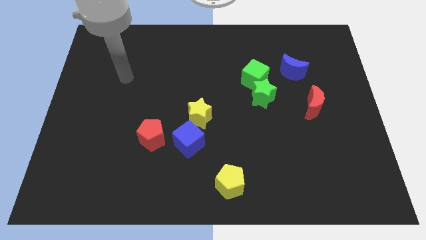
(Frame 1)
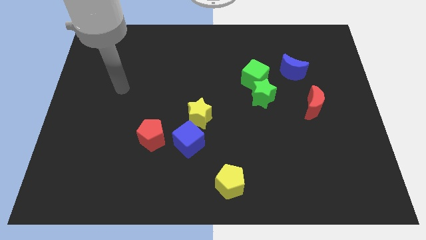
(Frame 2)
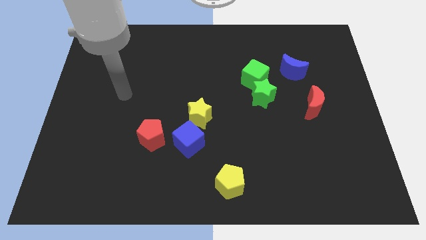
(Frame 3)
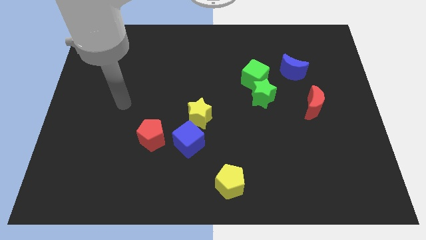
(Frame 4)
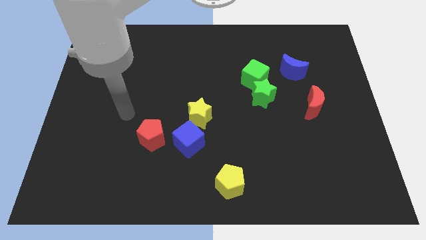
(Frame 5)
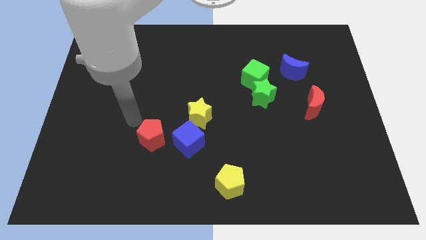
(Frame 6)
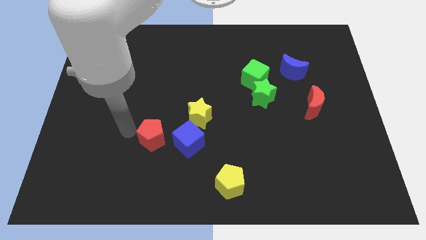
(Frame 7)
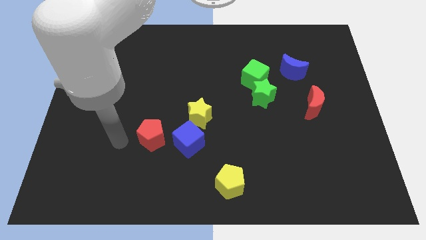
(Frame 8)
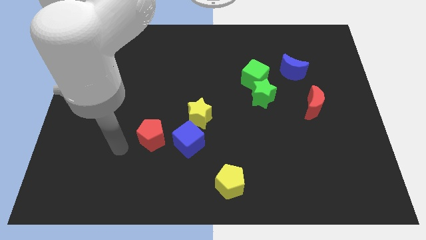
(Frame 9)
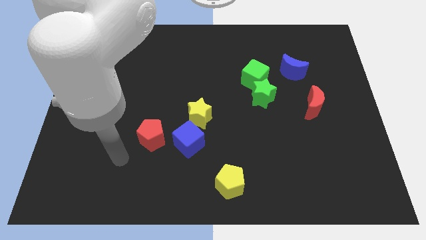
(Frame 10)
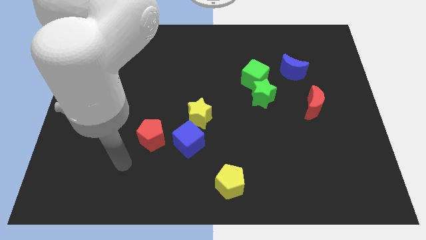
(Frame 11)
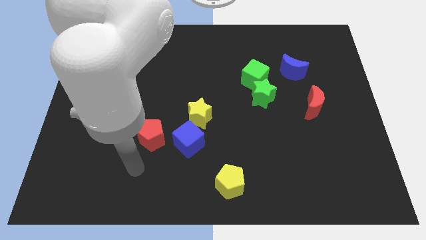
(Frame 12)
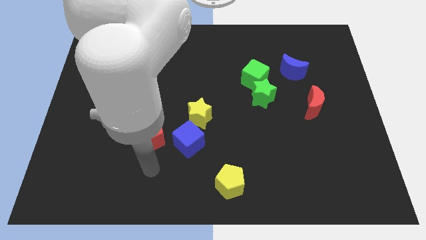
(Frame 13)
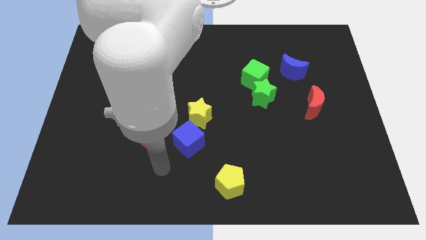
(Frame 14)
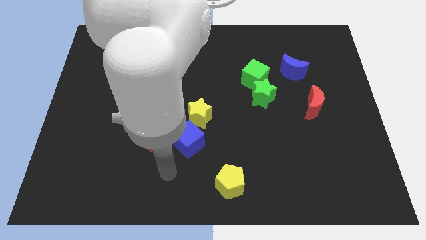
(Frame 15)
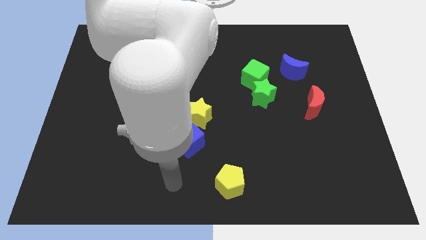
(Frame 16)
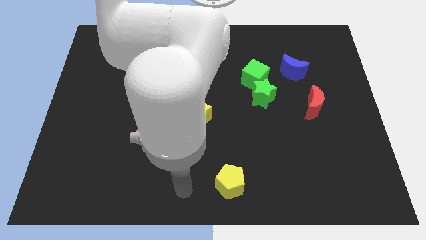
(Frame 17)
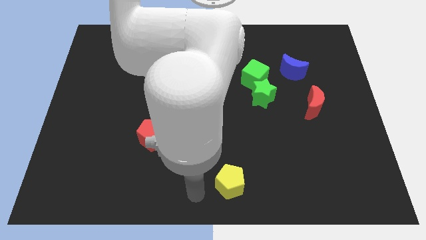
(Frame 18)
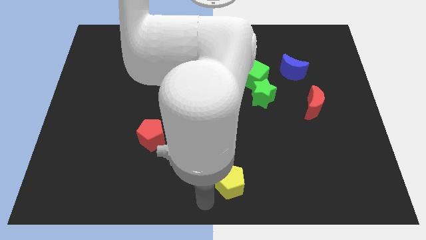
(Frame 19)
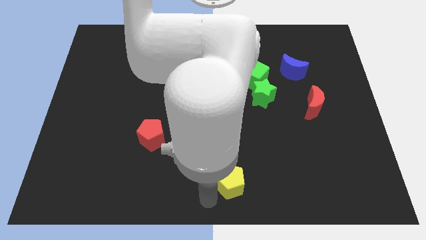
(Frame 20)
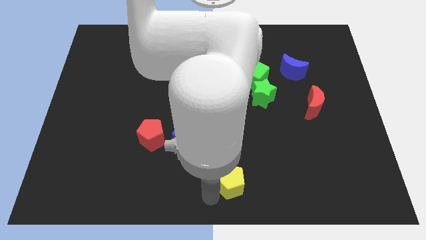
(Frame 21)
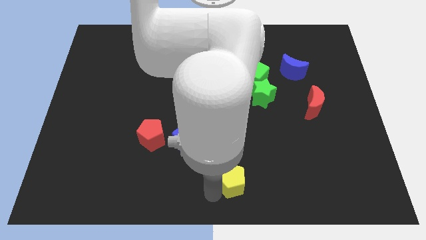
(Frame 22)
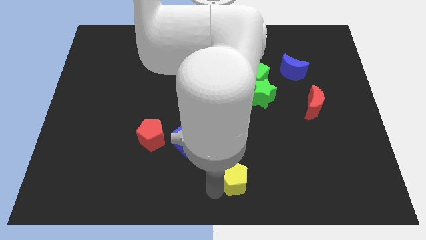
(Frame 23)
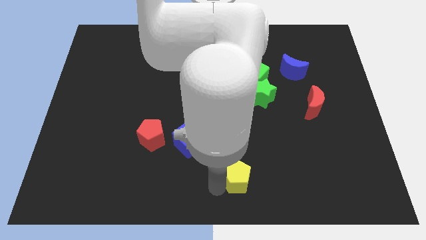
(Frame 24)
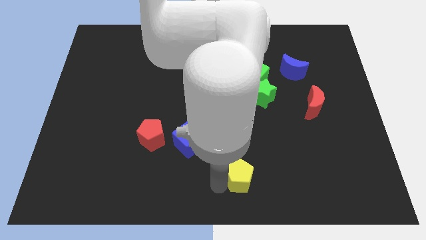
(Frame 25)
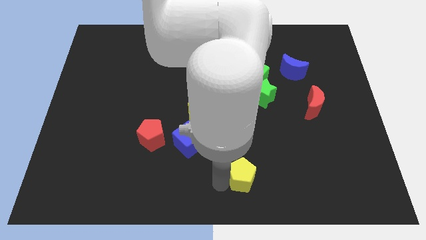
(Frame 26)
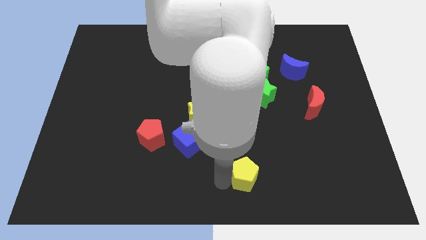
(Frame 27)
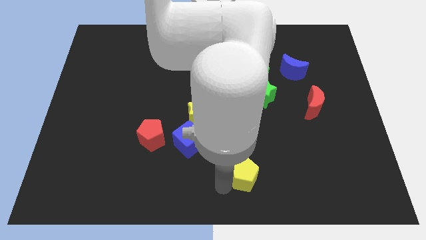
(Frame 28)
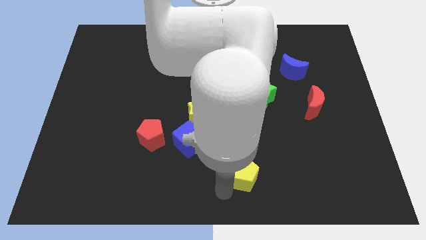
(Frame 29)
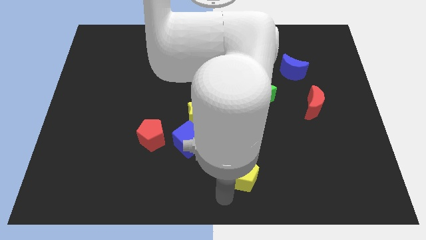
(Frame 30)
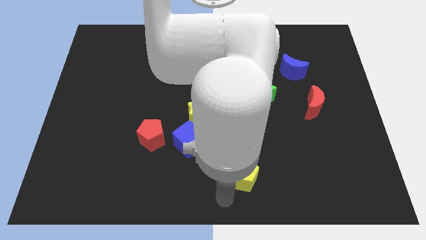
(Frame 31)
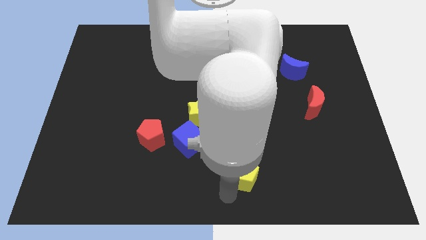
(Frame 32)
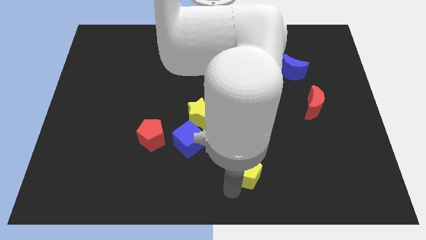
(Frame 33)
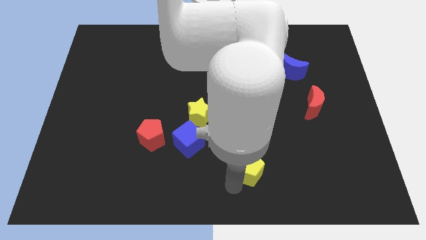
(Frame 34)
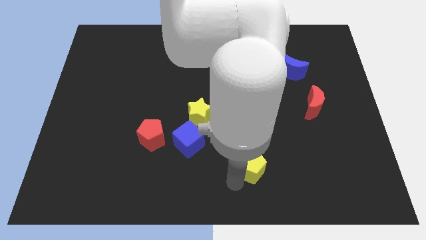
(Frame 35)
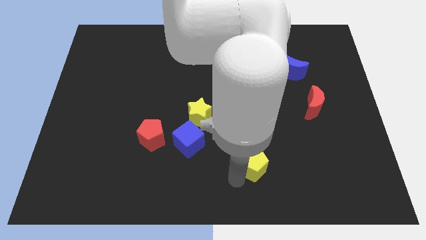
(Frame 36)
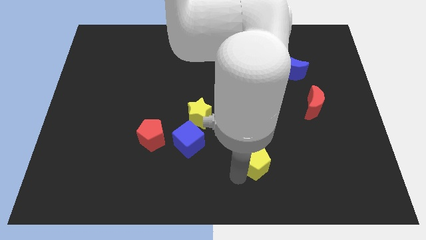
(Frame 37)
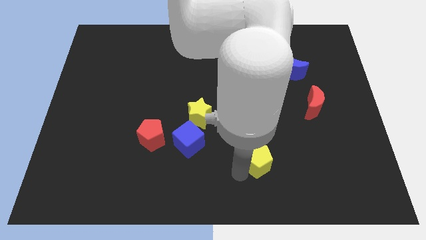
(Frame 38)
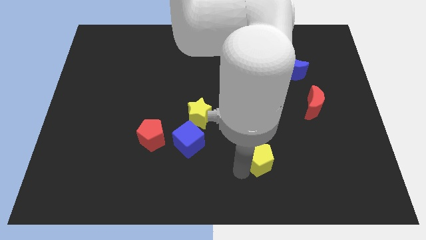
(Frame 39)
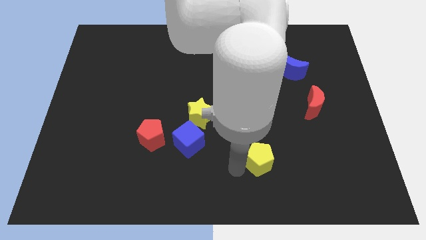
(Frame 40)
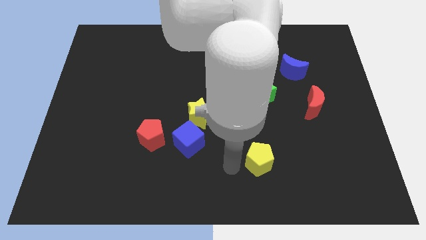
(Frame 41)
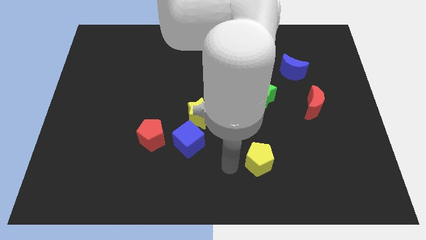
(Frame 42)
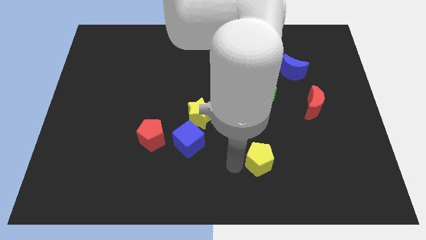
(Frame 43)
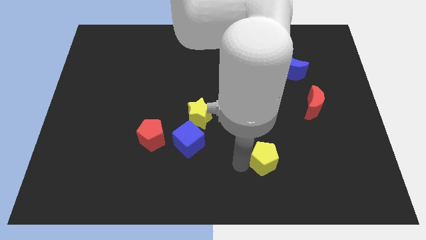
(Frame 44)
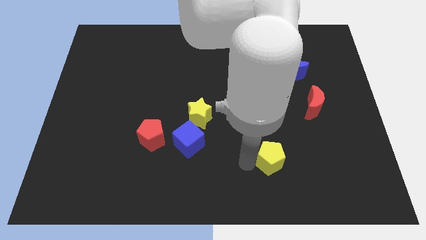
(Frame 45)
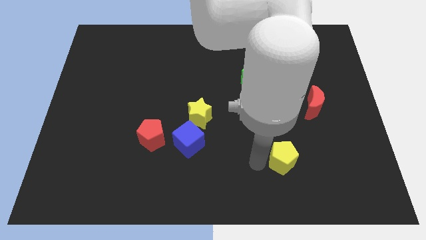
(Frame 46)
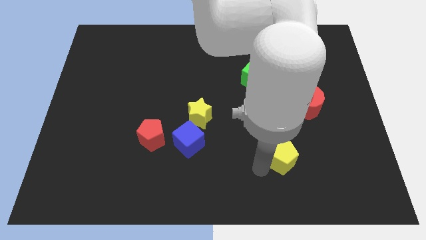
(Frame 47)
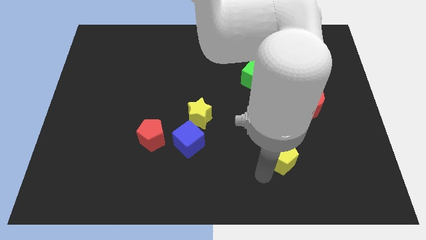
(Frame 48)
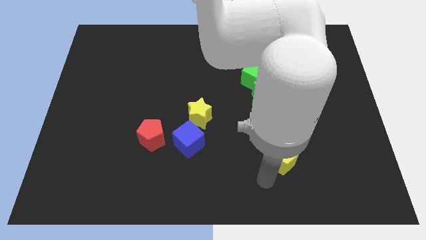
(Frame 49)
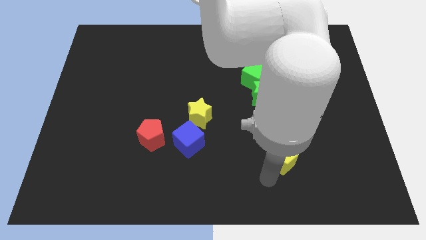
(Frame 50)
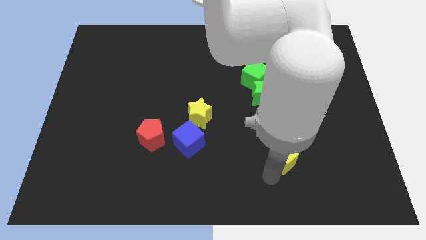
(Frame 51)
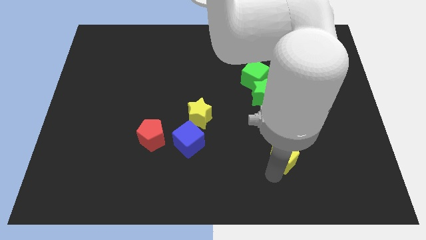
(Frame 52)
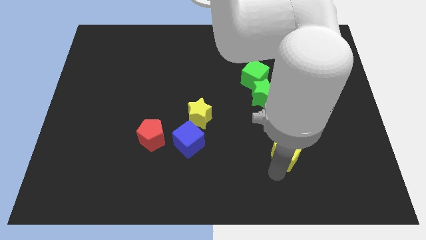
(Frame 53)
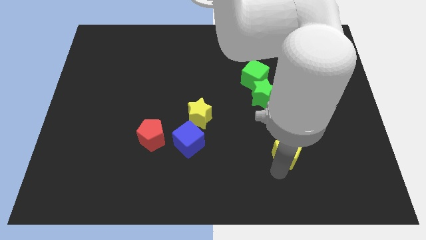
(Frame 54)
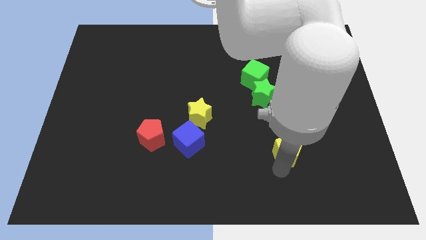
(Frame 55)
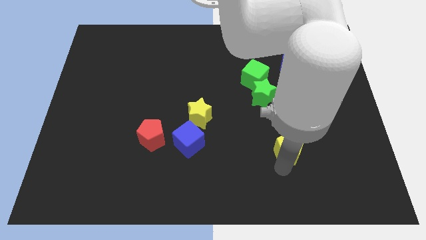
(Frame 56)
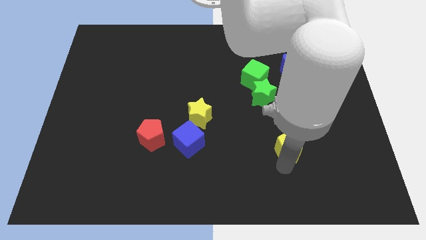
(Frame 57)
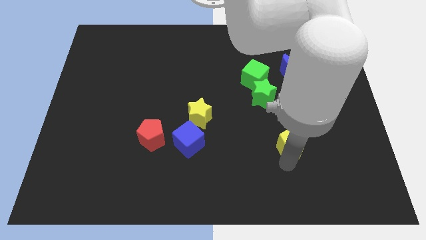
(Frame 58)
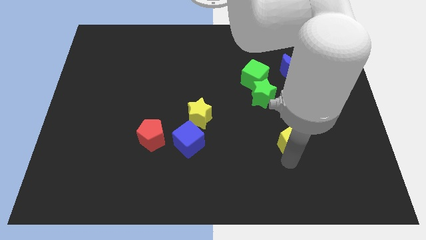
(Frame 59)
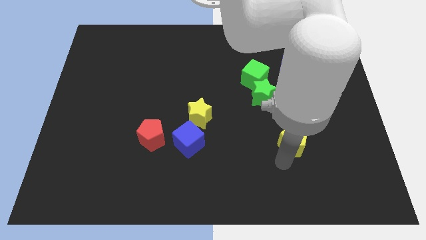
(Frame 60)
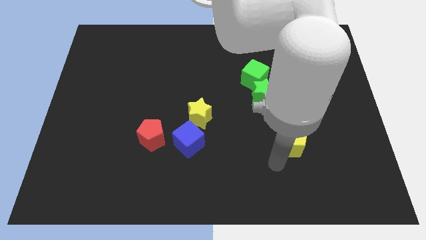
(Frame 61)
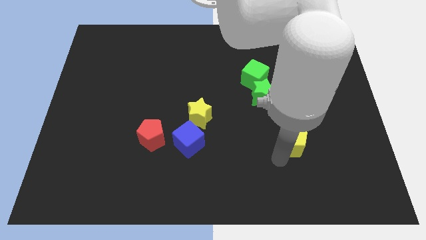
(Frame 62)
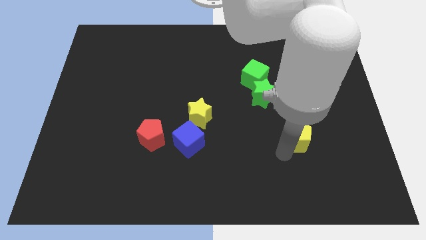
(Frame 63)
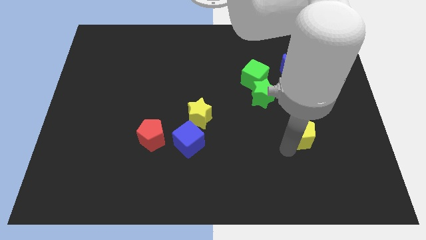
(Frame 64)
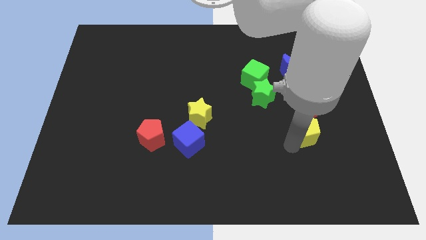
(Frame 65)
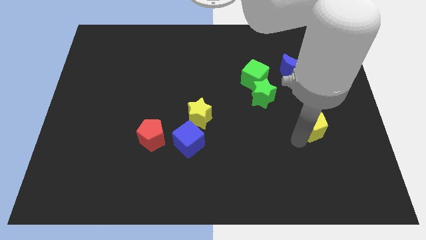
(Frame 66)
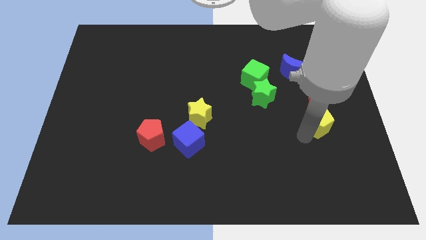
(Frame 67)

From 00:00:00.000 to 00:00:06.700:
put the yellow pentagon to the red moon

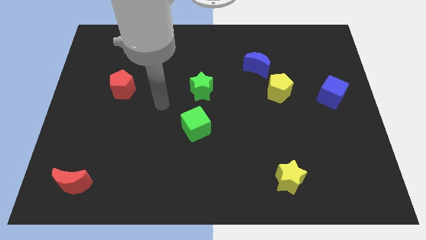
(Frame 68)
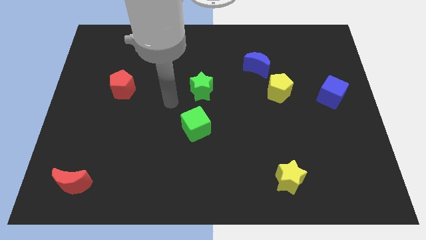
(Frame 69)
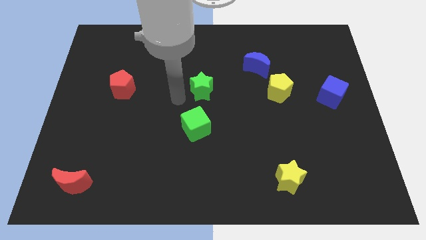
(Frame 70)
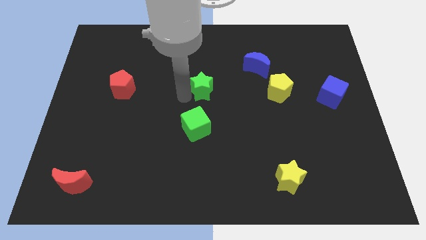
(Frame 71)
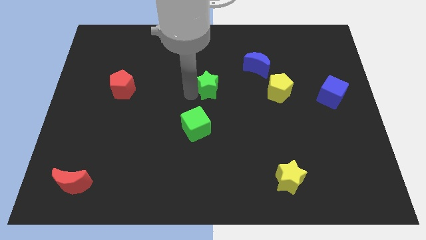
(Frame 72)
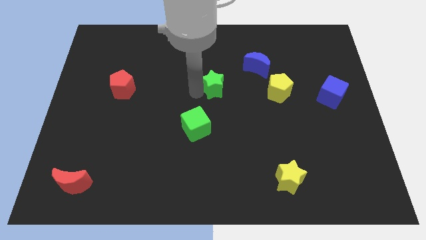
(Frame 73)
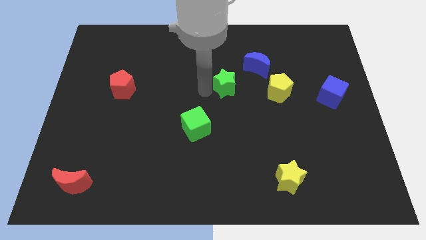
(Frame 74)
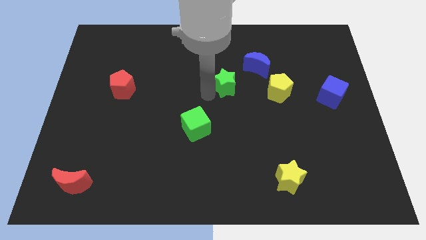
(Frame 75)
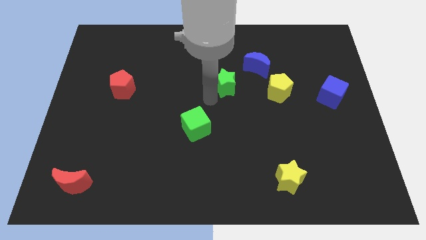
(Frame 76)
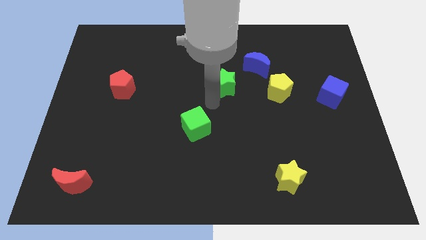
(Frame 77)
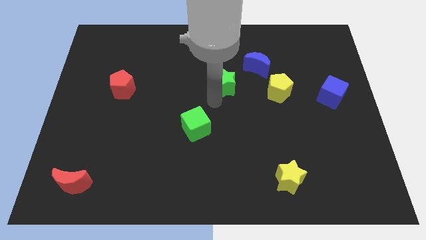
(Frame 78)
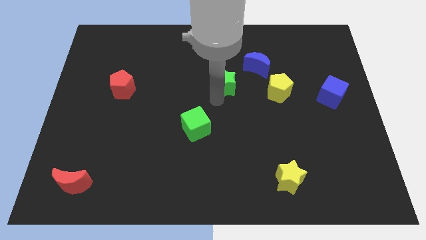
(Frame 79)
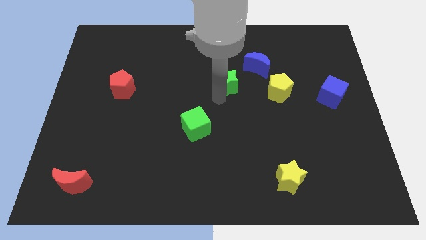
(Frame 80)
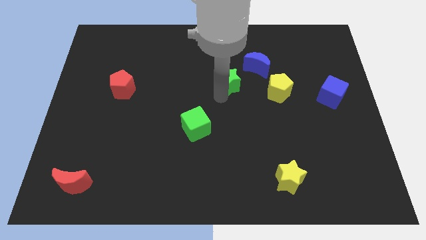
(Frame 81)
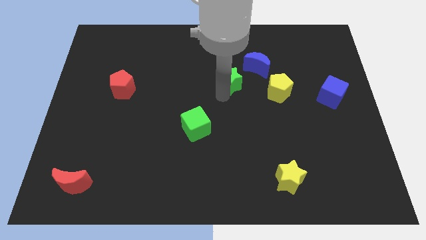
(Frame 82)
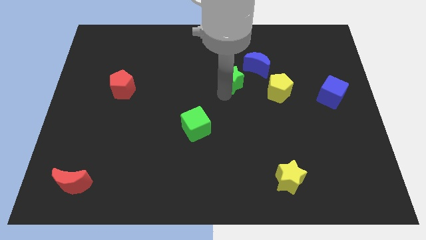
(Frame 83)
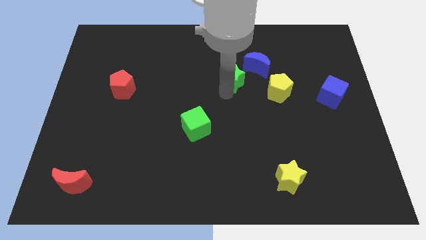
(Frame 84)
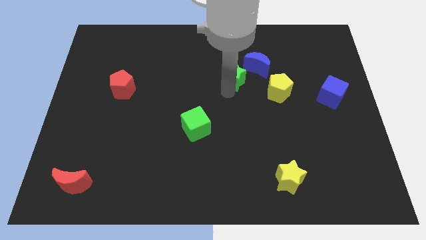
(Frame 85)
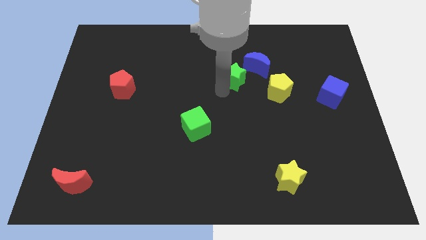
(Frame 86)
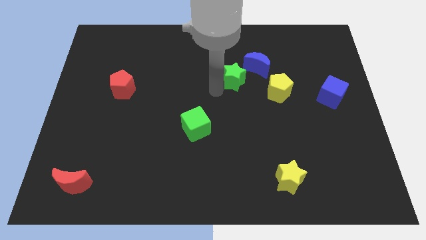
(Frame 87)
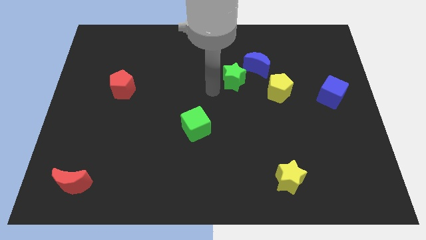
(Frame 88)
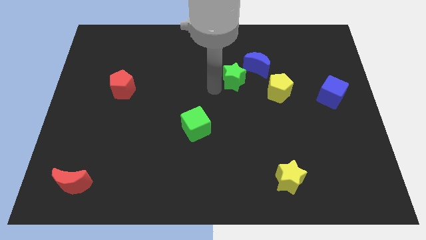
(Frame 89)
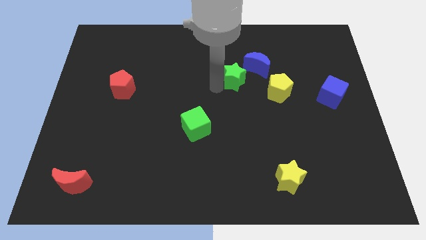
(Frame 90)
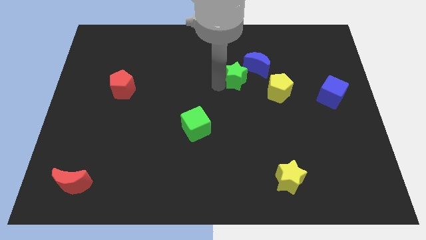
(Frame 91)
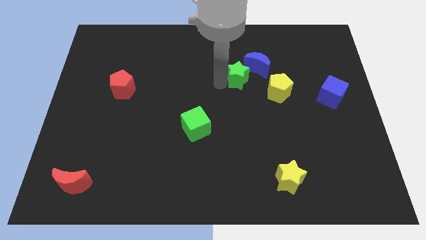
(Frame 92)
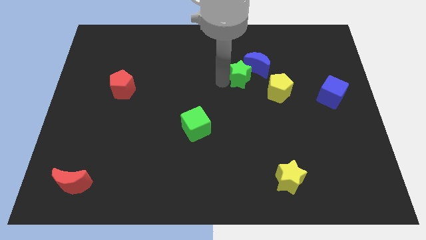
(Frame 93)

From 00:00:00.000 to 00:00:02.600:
put the green star close to the blue moon
